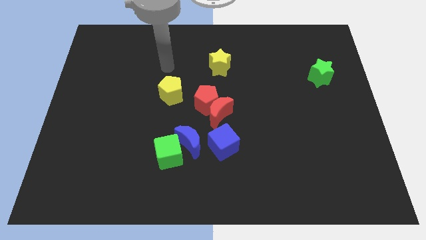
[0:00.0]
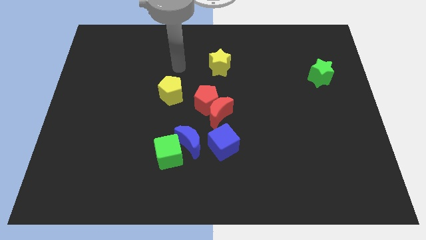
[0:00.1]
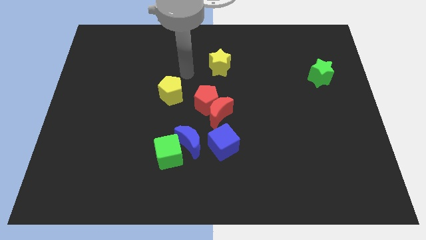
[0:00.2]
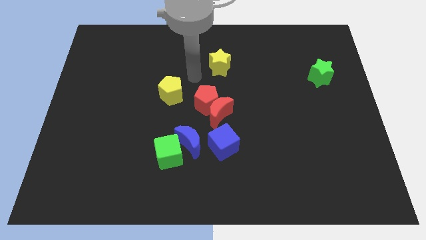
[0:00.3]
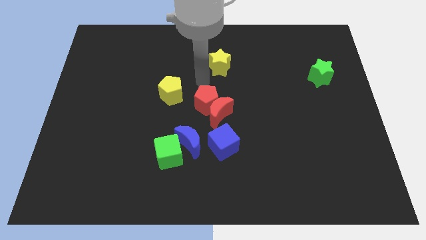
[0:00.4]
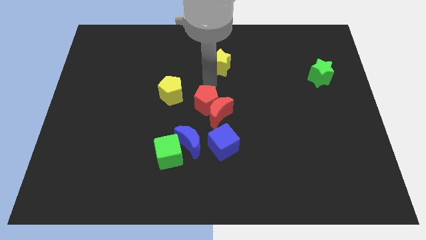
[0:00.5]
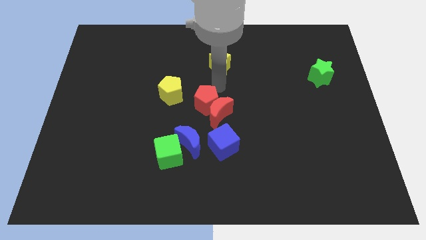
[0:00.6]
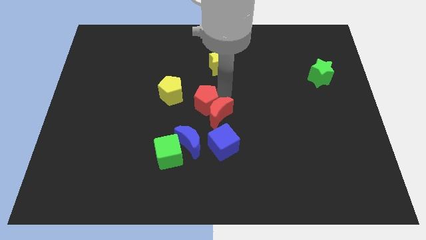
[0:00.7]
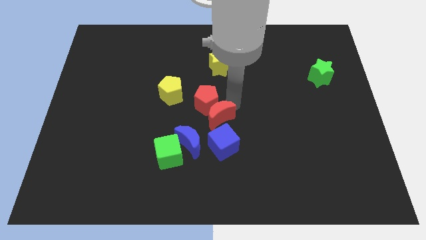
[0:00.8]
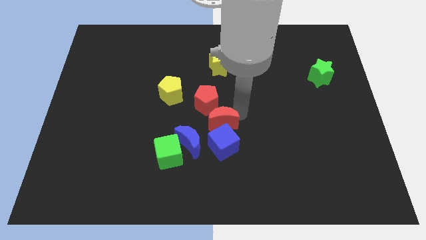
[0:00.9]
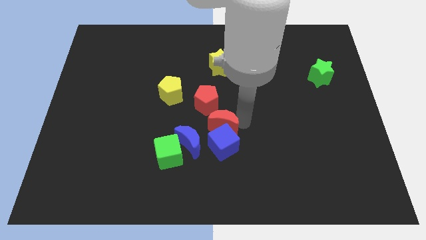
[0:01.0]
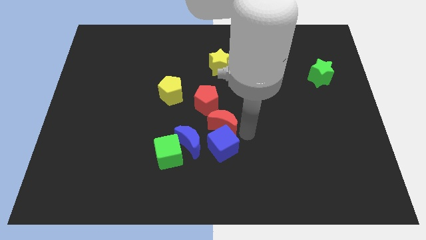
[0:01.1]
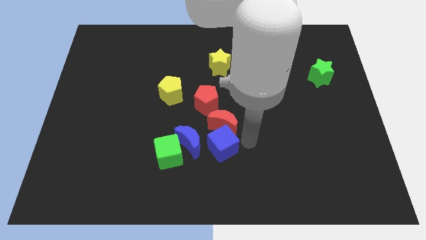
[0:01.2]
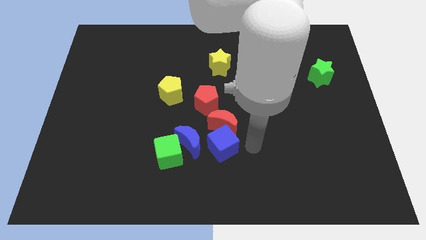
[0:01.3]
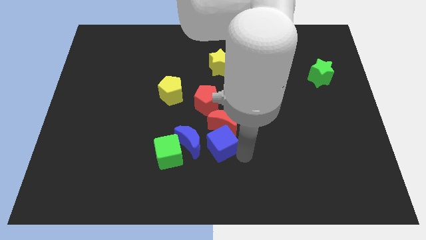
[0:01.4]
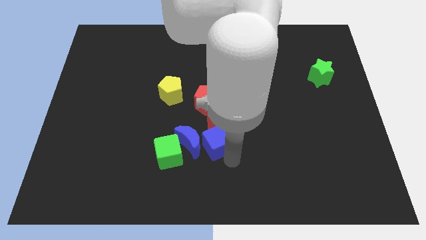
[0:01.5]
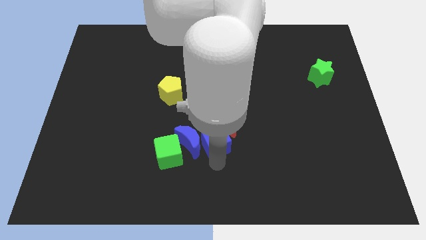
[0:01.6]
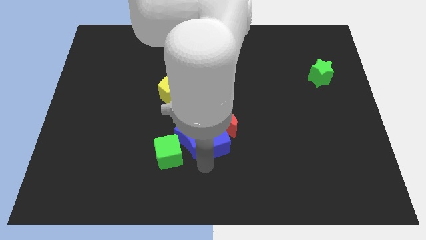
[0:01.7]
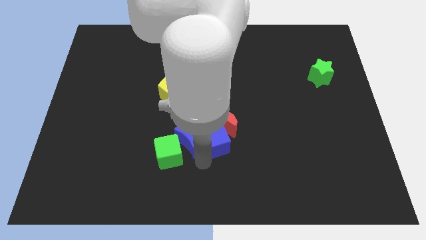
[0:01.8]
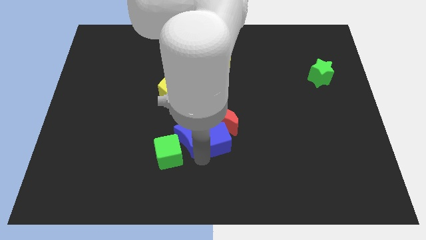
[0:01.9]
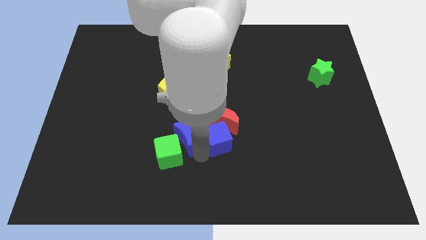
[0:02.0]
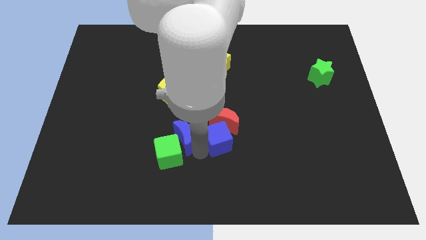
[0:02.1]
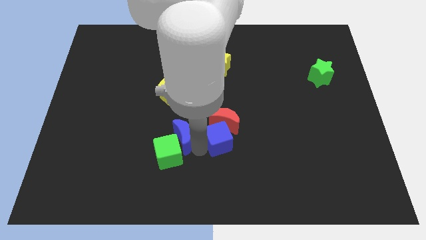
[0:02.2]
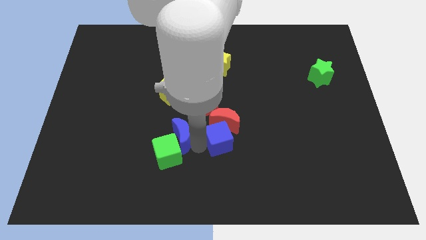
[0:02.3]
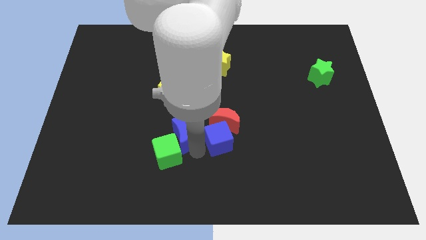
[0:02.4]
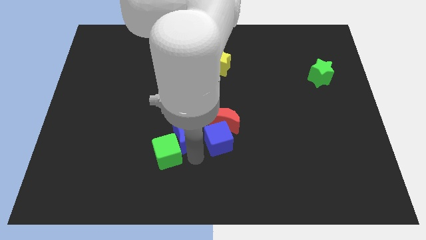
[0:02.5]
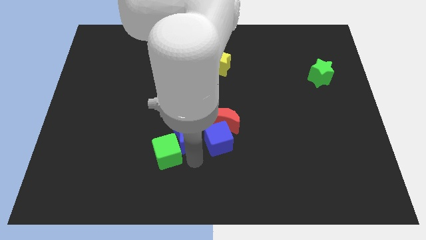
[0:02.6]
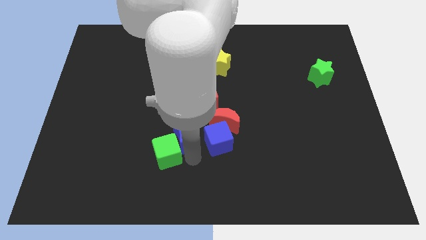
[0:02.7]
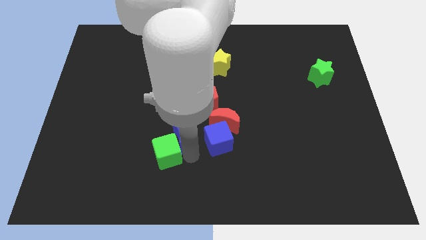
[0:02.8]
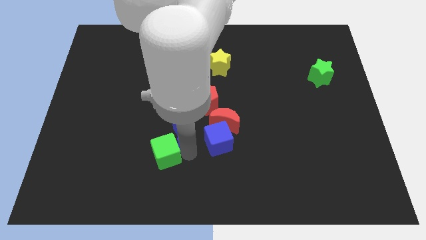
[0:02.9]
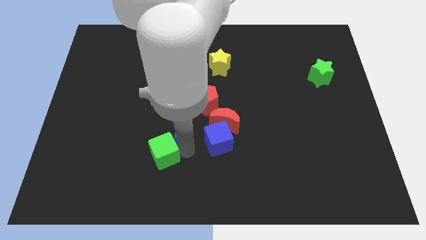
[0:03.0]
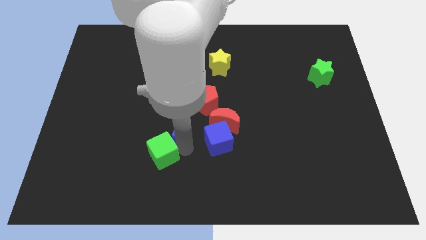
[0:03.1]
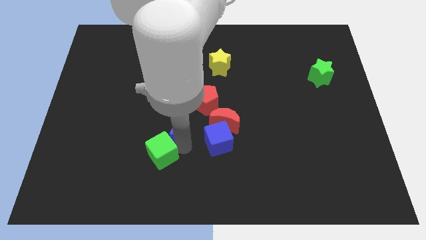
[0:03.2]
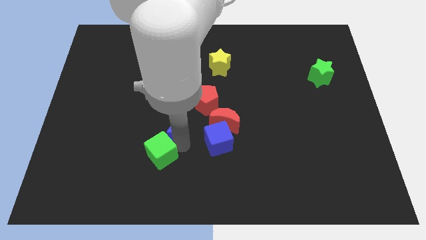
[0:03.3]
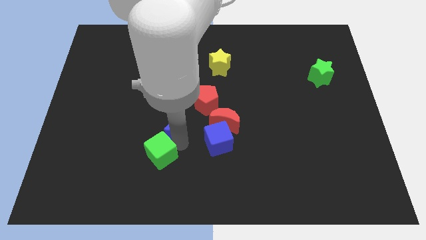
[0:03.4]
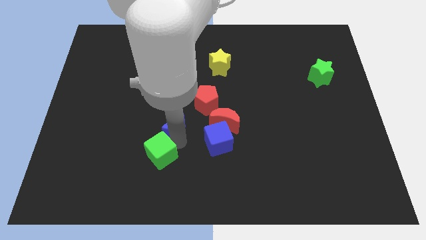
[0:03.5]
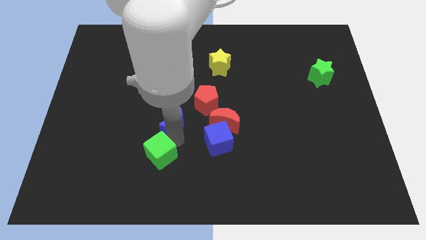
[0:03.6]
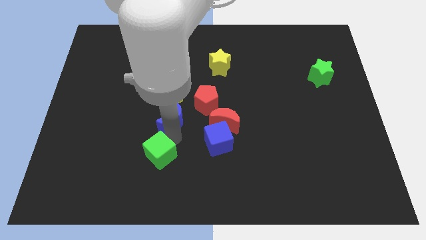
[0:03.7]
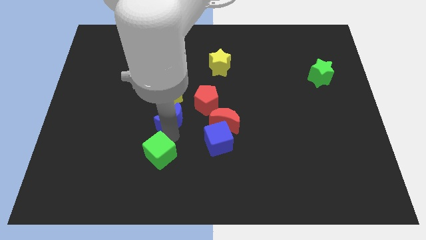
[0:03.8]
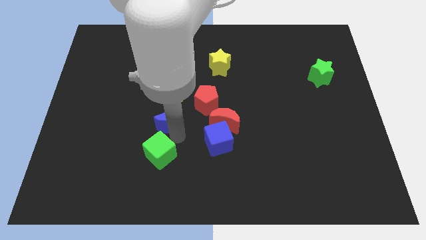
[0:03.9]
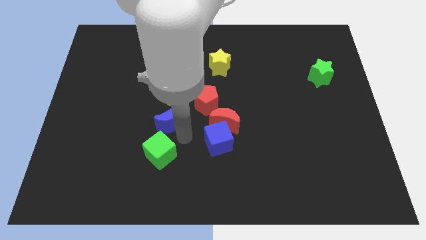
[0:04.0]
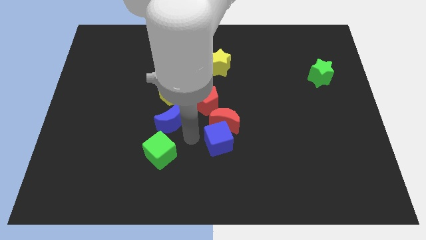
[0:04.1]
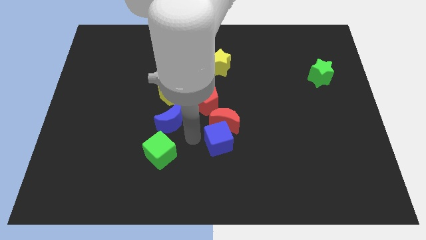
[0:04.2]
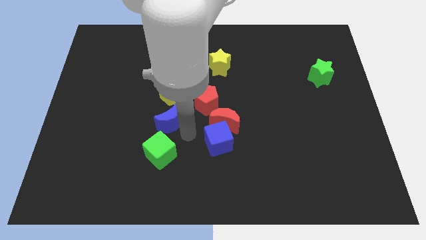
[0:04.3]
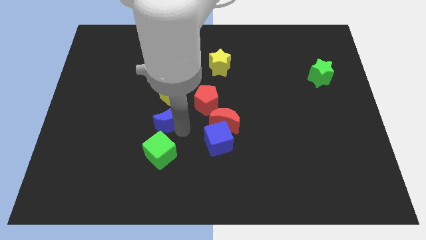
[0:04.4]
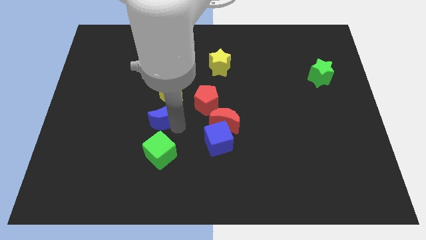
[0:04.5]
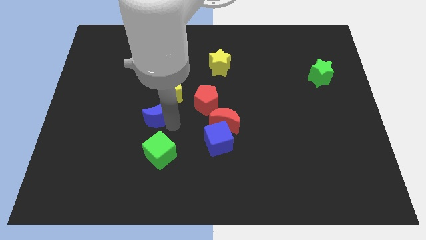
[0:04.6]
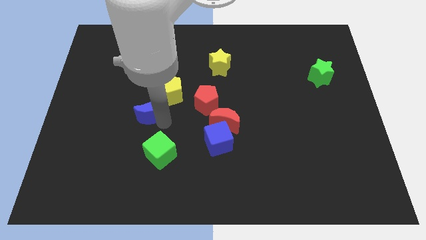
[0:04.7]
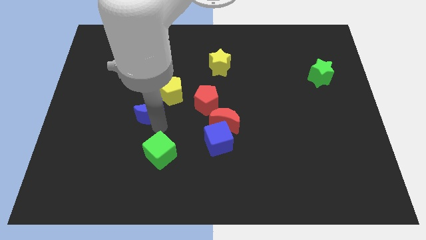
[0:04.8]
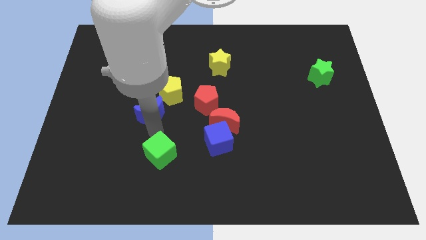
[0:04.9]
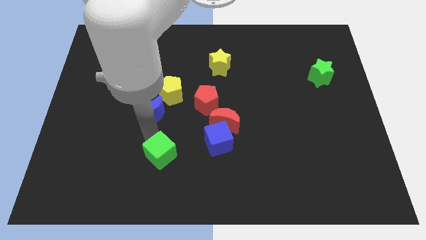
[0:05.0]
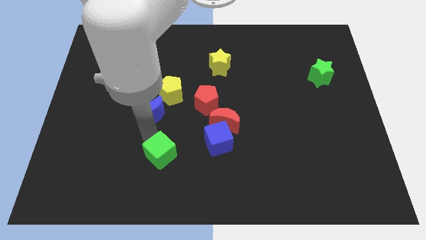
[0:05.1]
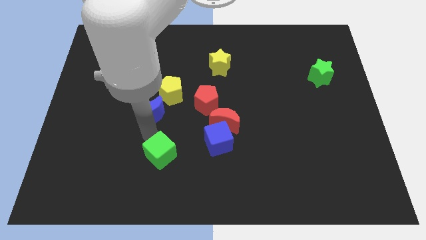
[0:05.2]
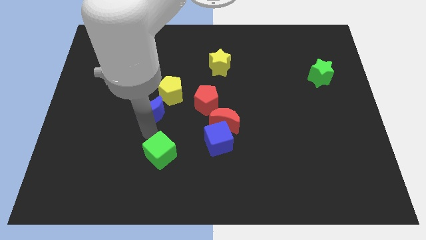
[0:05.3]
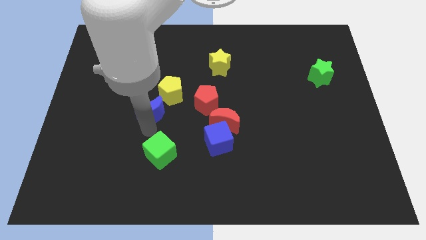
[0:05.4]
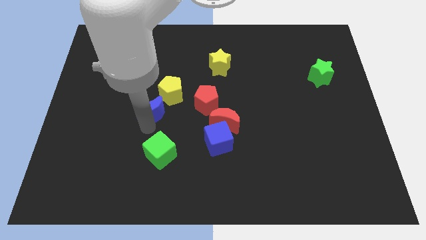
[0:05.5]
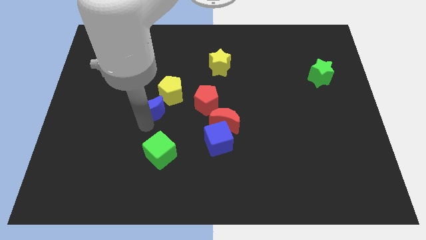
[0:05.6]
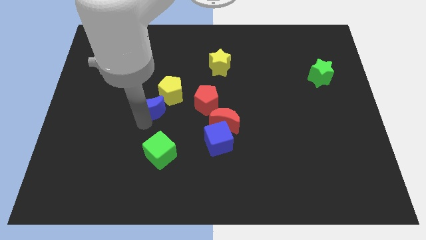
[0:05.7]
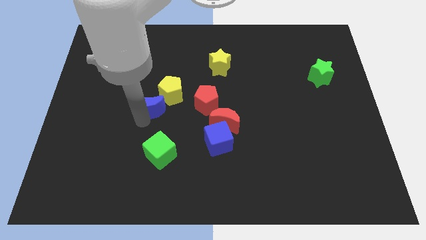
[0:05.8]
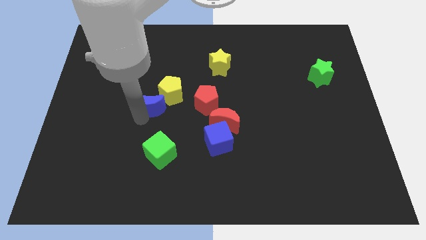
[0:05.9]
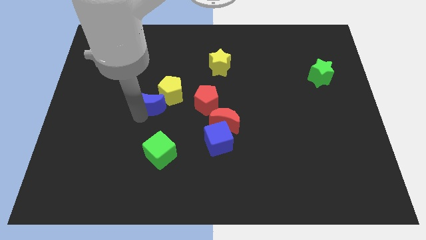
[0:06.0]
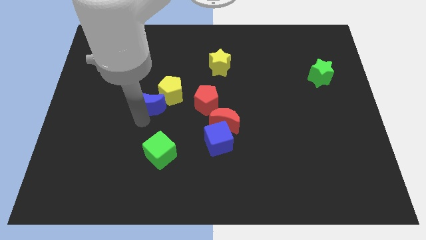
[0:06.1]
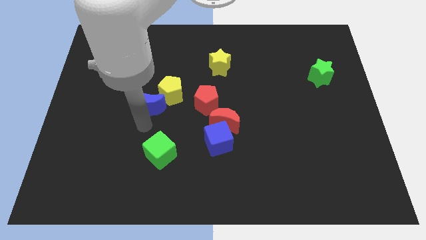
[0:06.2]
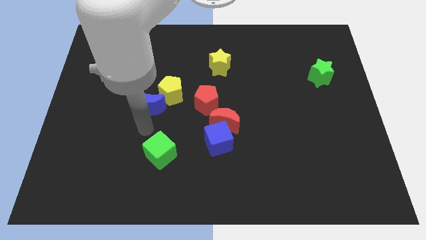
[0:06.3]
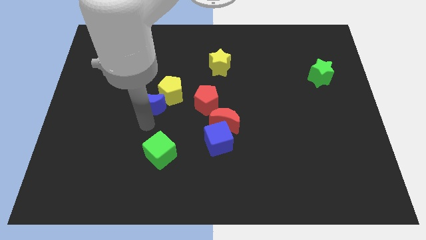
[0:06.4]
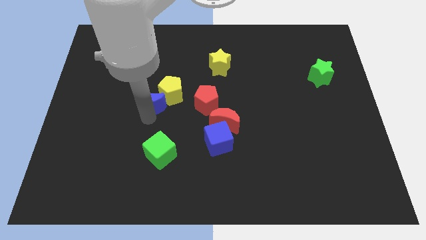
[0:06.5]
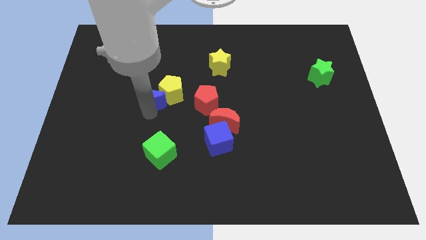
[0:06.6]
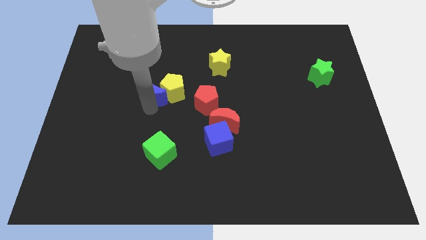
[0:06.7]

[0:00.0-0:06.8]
put the blue moon to the top left of the yellow pentagon

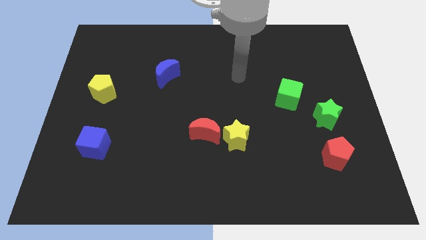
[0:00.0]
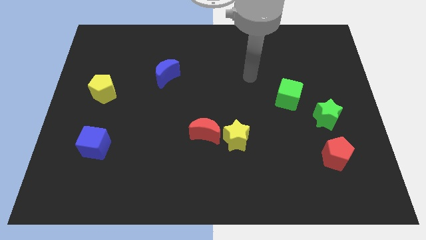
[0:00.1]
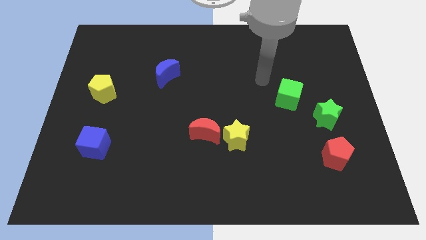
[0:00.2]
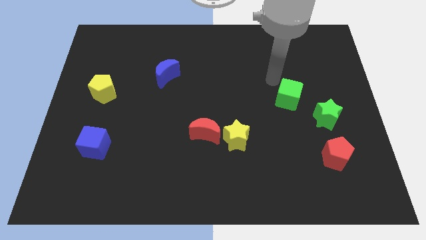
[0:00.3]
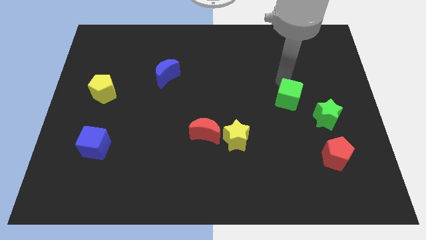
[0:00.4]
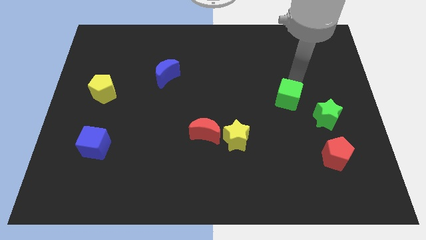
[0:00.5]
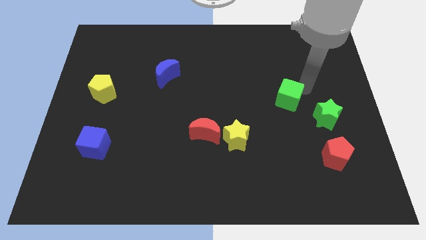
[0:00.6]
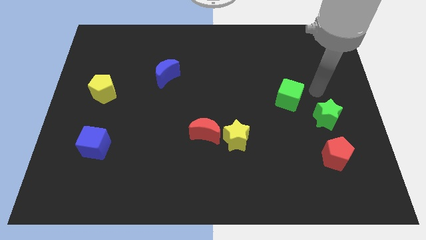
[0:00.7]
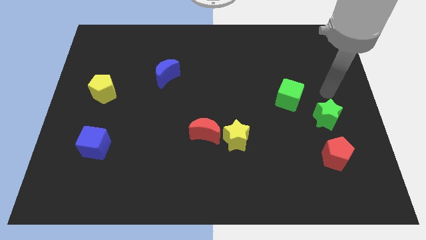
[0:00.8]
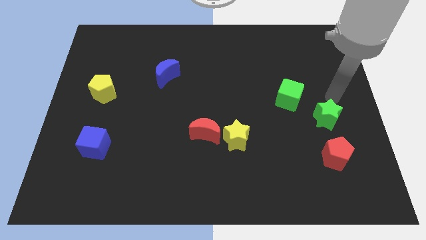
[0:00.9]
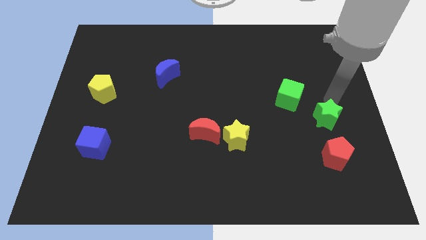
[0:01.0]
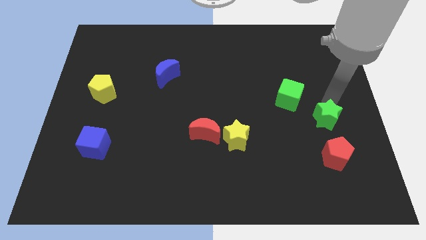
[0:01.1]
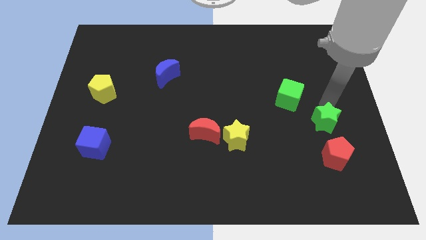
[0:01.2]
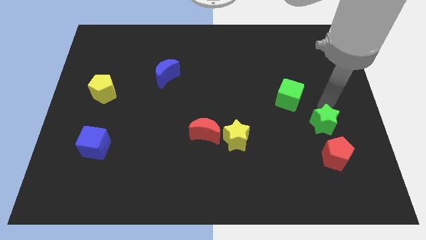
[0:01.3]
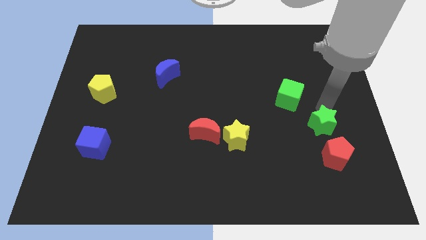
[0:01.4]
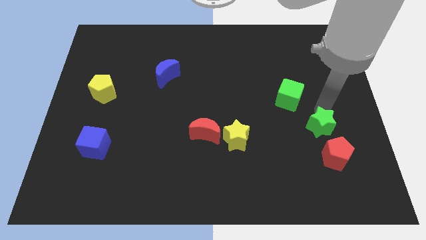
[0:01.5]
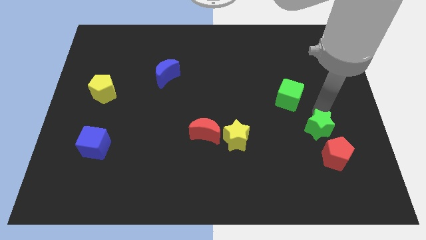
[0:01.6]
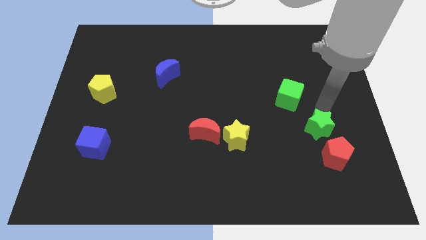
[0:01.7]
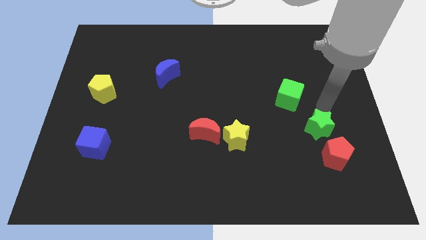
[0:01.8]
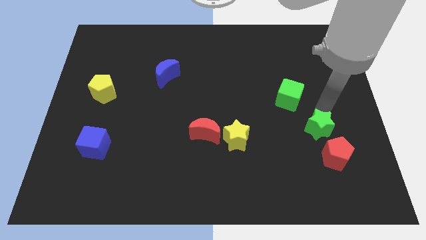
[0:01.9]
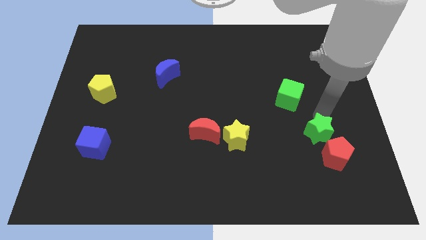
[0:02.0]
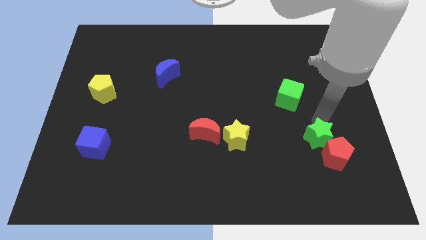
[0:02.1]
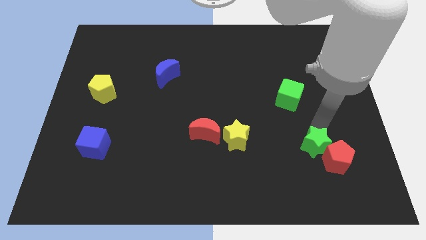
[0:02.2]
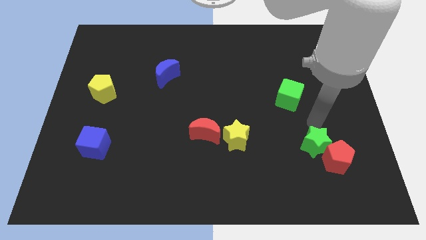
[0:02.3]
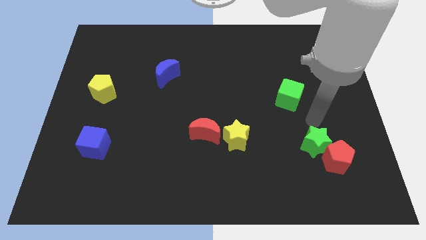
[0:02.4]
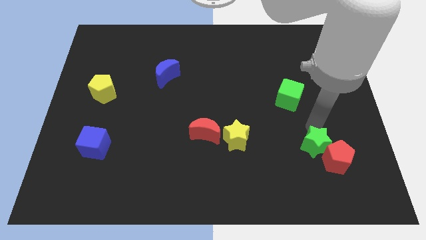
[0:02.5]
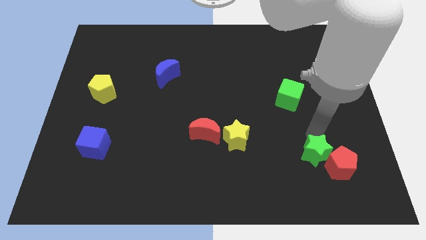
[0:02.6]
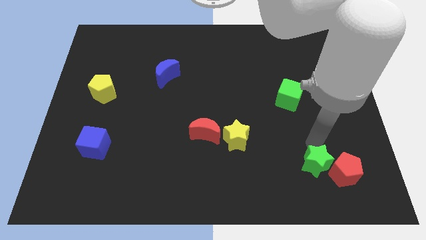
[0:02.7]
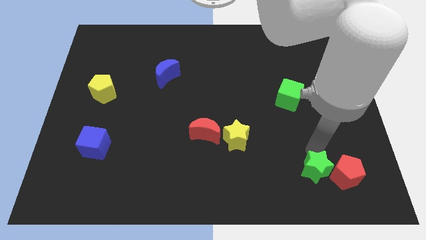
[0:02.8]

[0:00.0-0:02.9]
slide the green star to the bottom left side of the red pentagon
